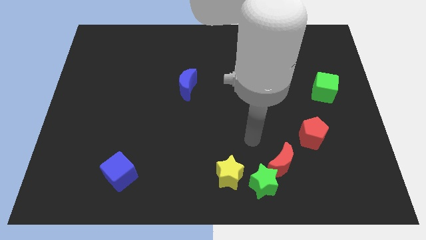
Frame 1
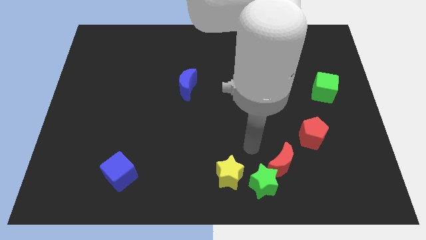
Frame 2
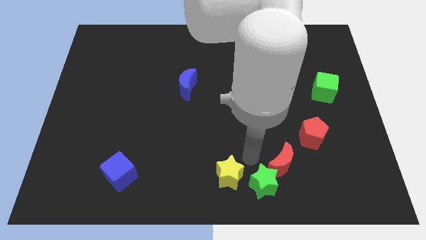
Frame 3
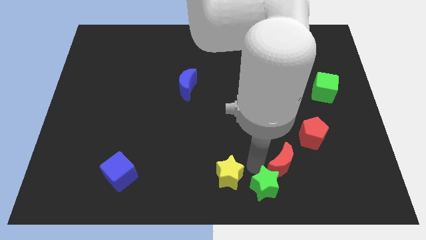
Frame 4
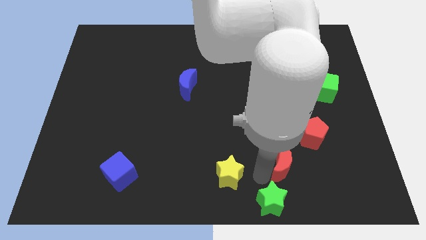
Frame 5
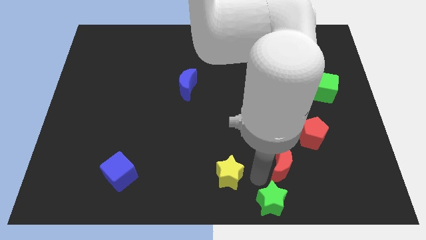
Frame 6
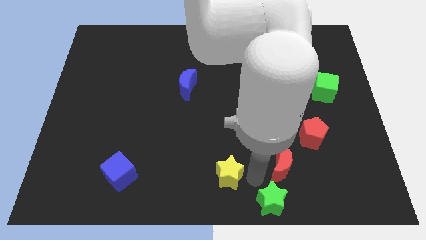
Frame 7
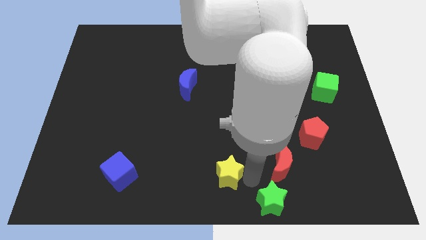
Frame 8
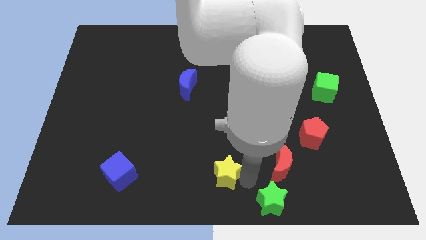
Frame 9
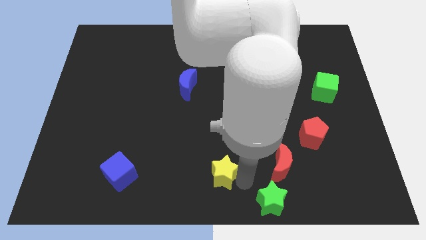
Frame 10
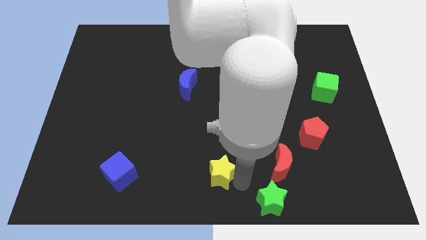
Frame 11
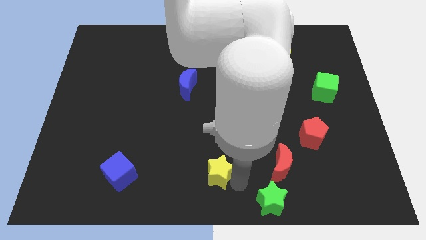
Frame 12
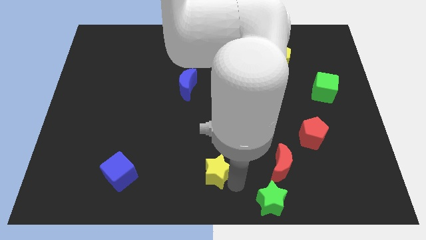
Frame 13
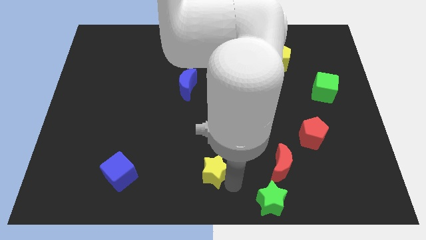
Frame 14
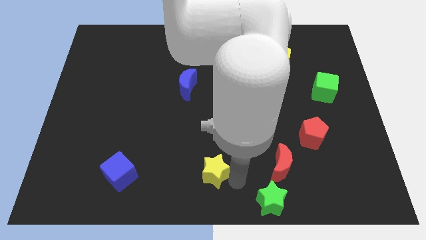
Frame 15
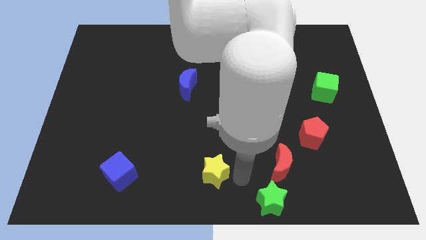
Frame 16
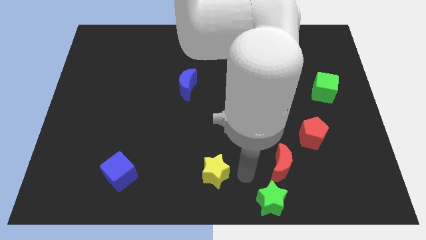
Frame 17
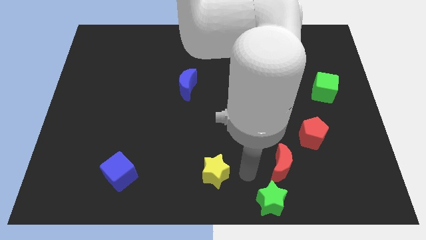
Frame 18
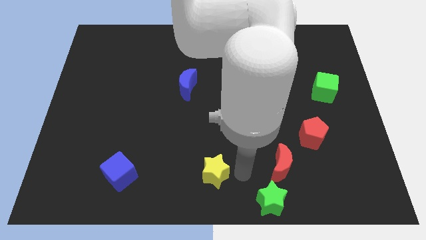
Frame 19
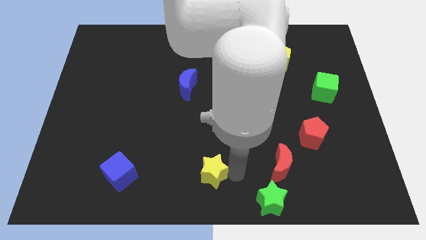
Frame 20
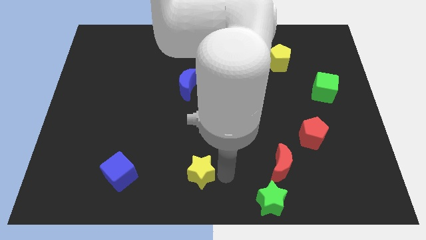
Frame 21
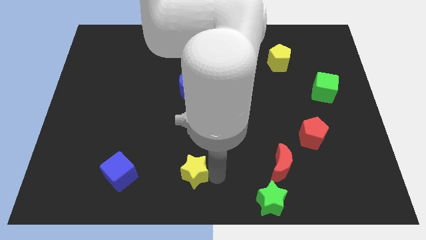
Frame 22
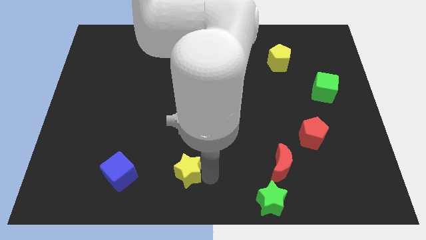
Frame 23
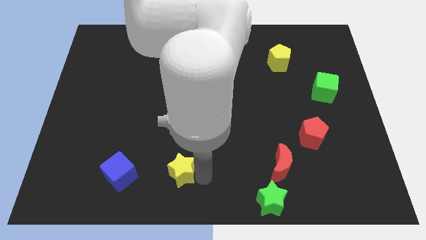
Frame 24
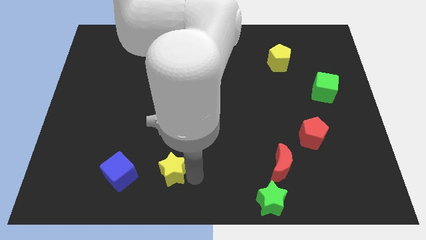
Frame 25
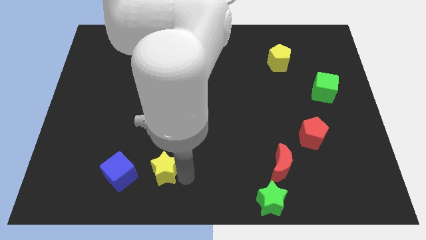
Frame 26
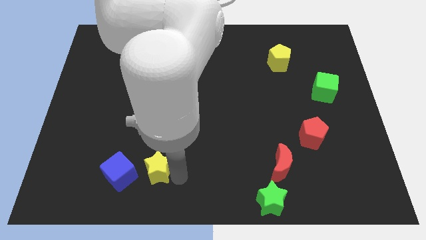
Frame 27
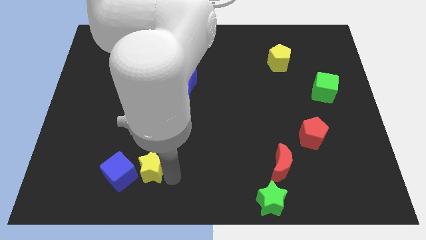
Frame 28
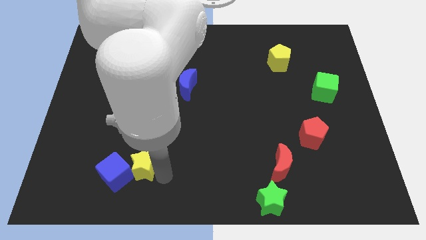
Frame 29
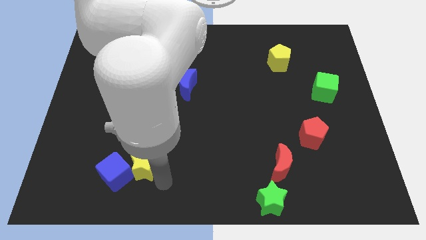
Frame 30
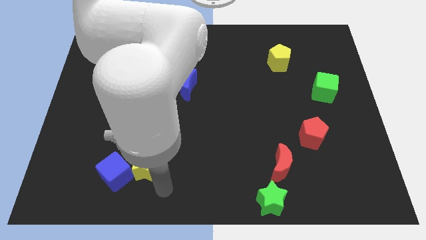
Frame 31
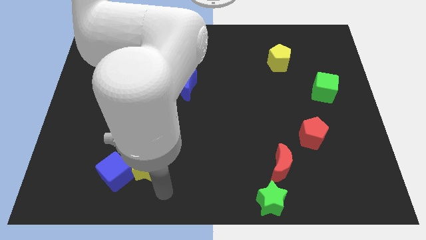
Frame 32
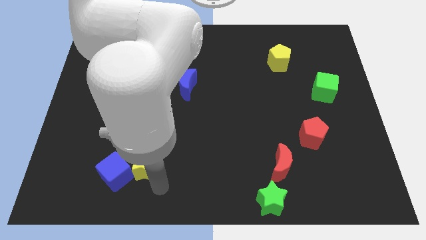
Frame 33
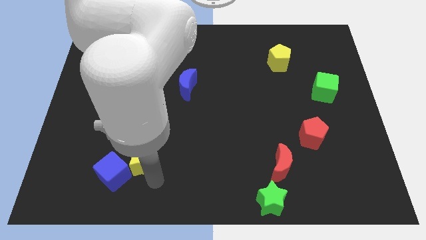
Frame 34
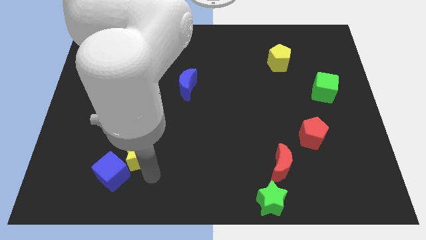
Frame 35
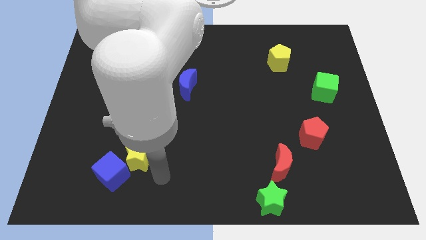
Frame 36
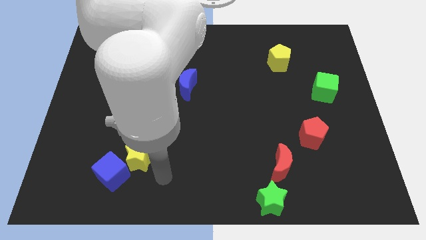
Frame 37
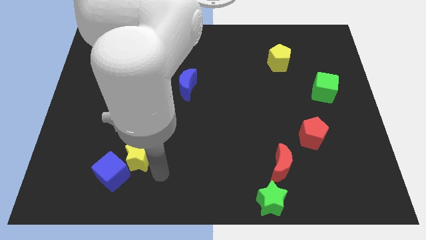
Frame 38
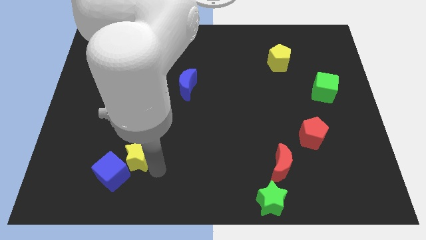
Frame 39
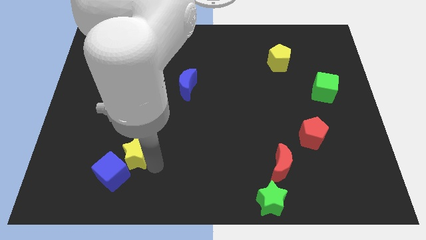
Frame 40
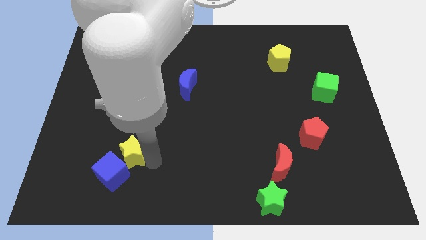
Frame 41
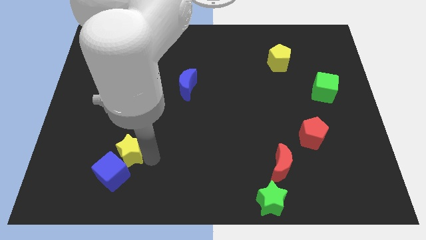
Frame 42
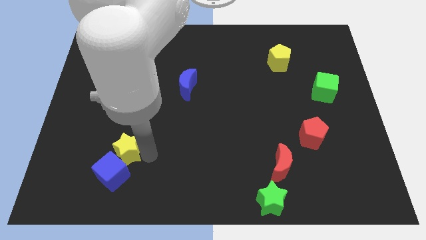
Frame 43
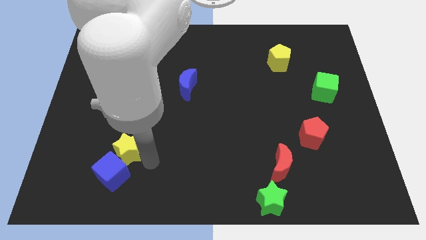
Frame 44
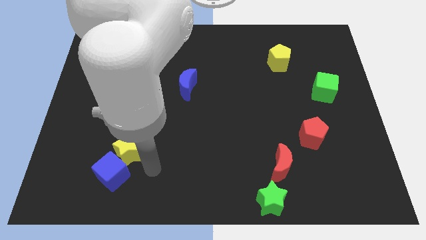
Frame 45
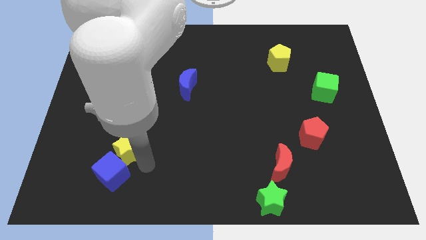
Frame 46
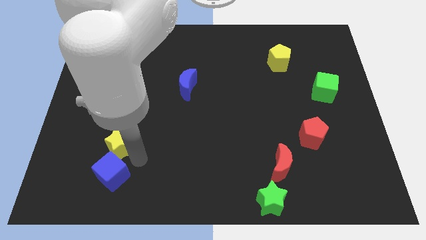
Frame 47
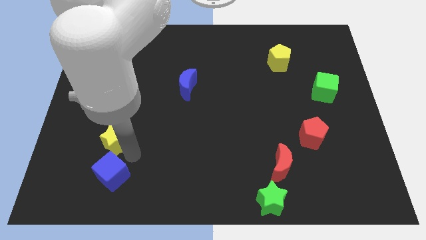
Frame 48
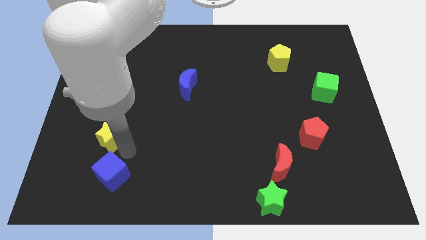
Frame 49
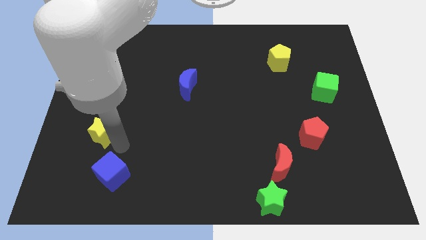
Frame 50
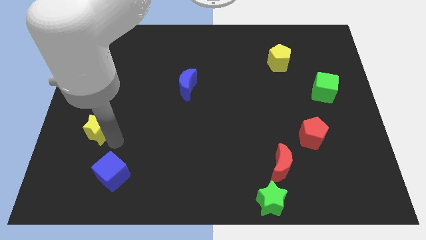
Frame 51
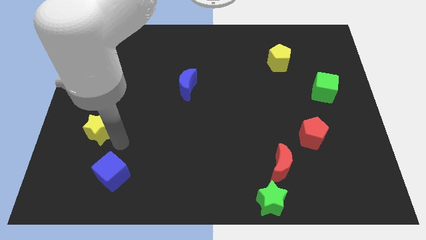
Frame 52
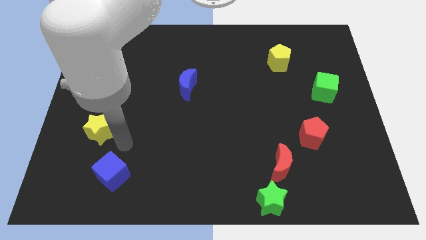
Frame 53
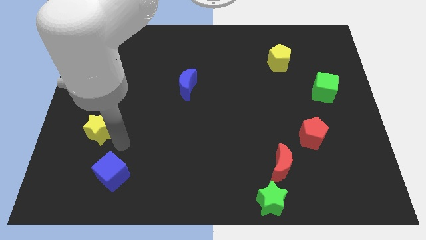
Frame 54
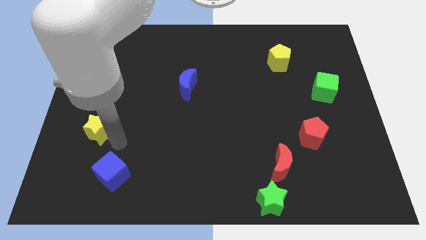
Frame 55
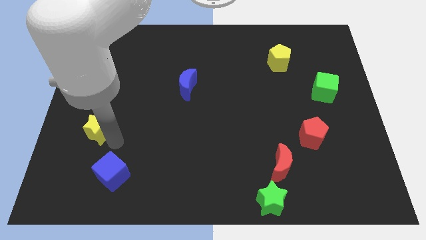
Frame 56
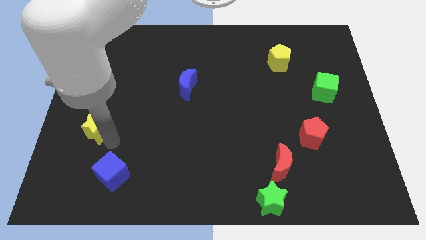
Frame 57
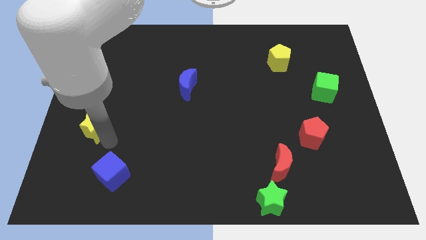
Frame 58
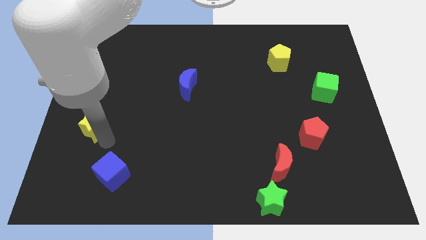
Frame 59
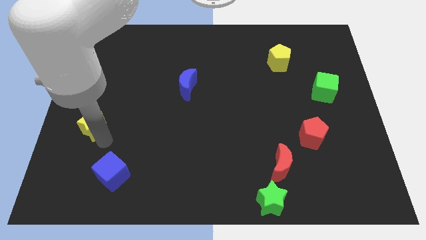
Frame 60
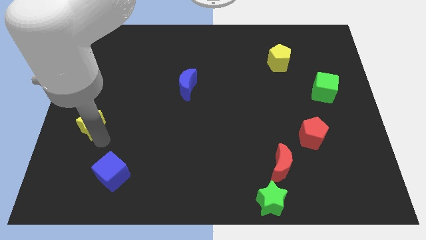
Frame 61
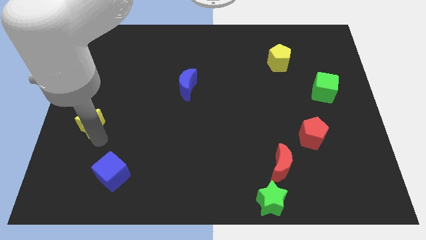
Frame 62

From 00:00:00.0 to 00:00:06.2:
move the yellow star to the left side

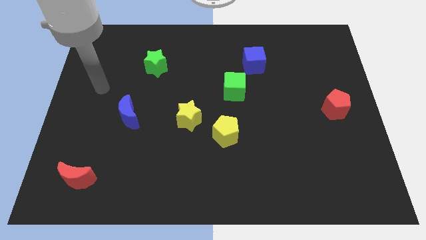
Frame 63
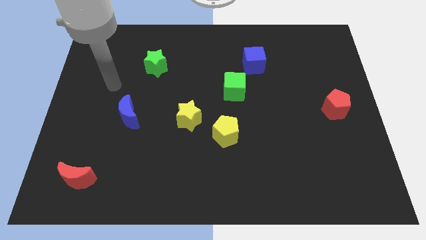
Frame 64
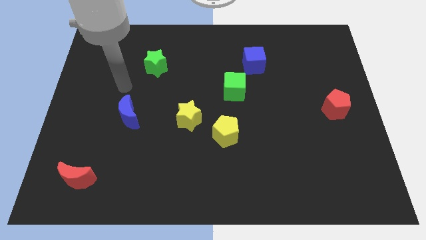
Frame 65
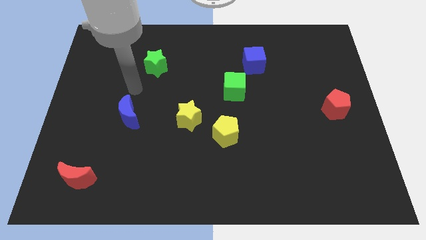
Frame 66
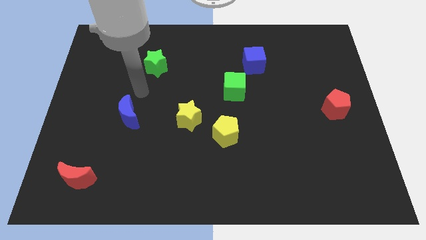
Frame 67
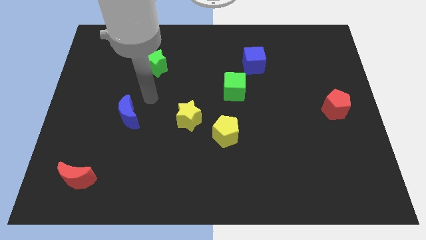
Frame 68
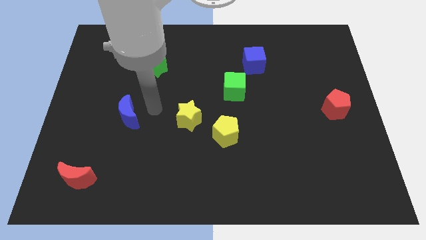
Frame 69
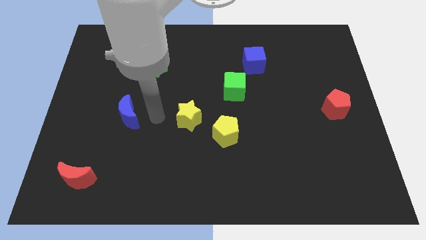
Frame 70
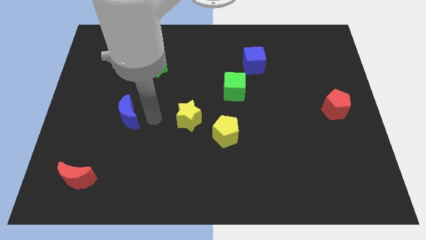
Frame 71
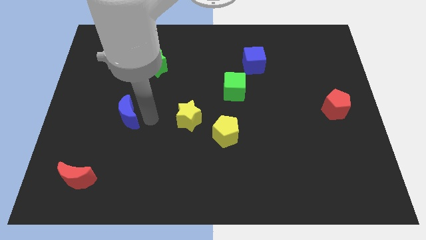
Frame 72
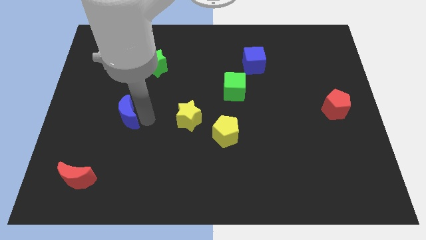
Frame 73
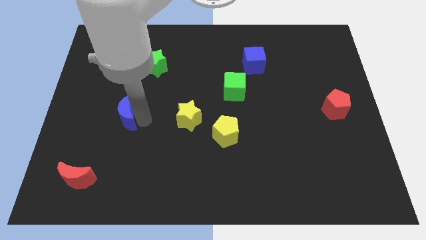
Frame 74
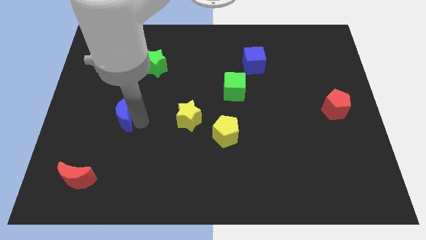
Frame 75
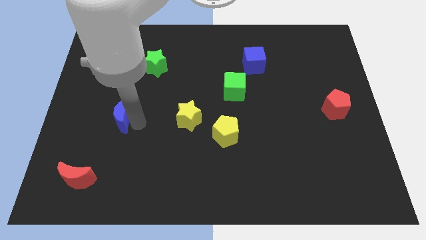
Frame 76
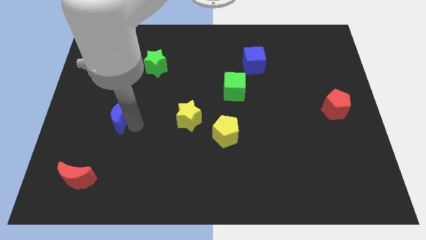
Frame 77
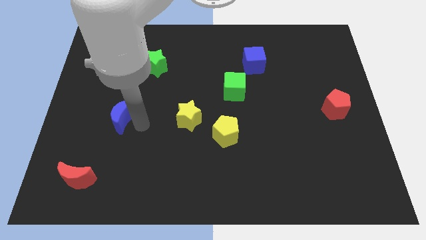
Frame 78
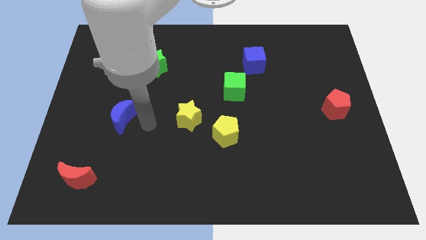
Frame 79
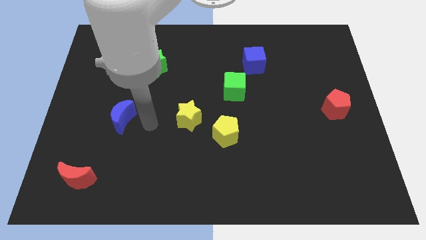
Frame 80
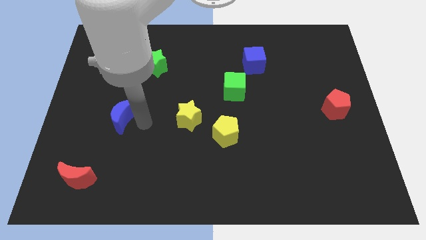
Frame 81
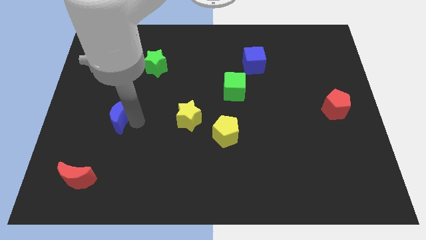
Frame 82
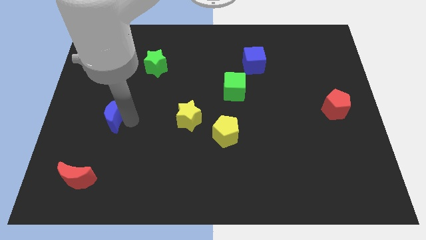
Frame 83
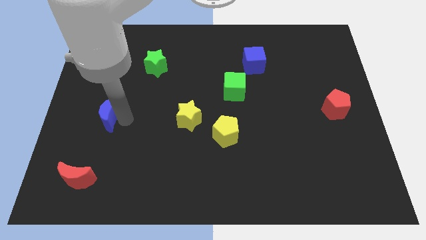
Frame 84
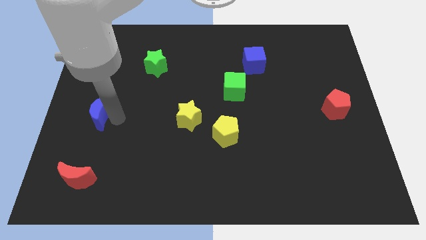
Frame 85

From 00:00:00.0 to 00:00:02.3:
push the blue moon to the left side
